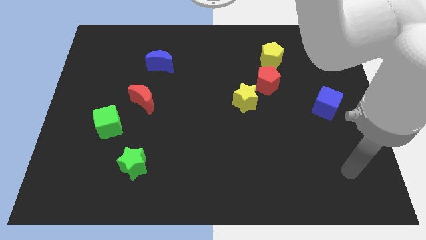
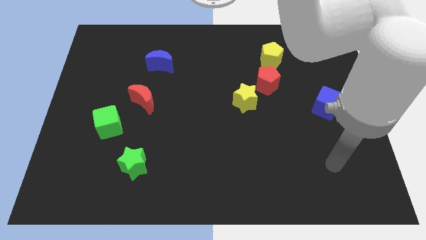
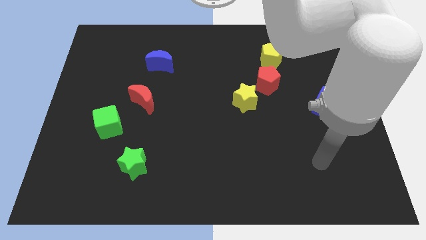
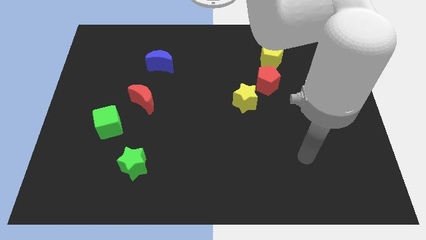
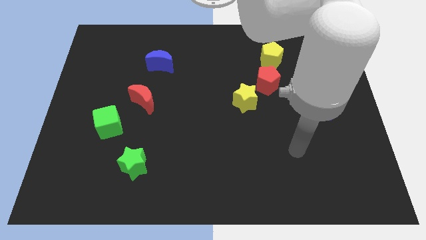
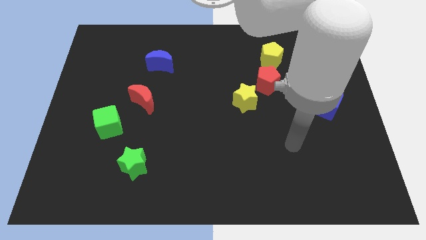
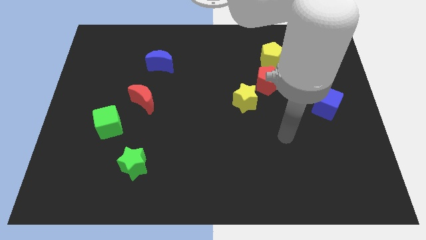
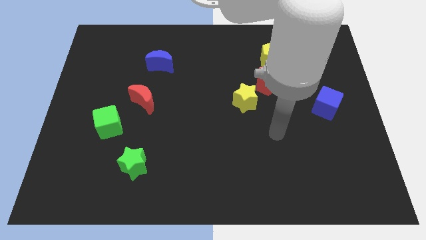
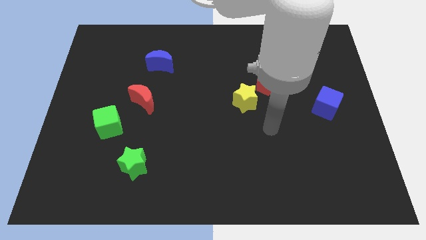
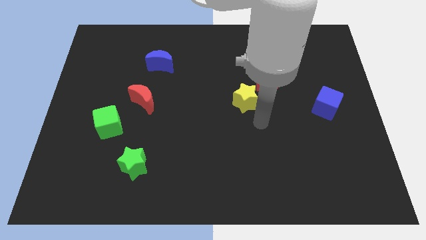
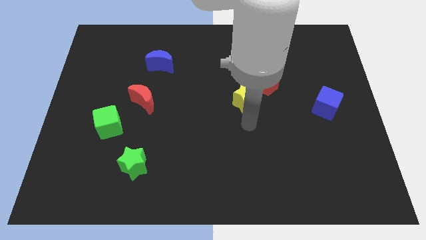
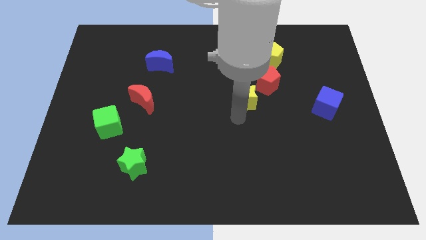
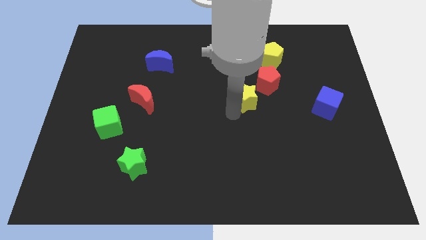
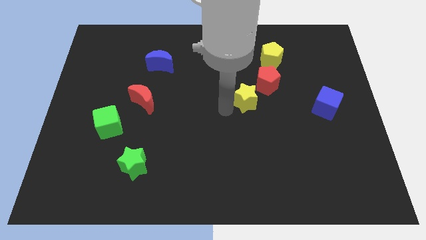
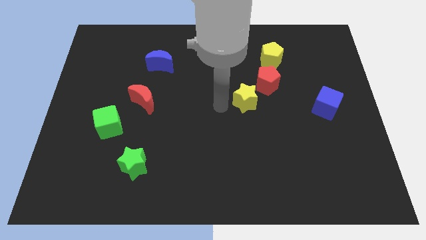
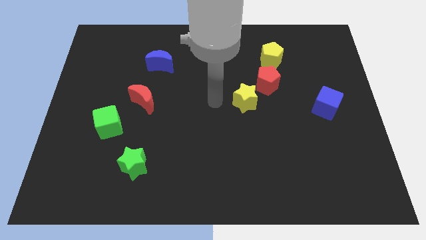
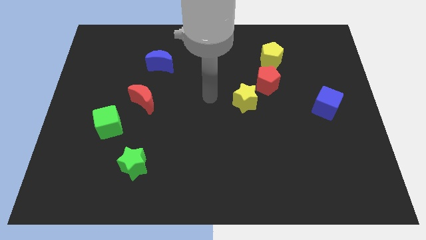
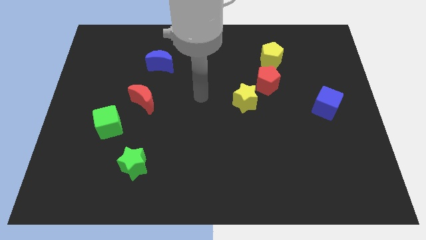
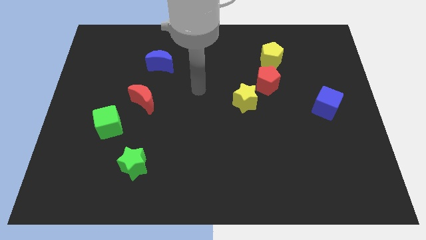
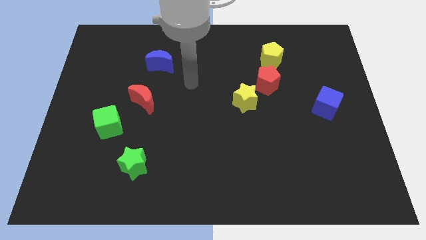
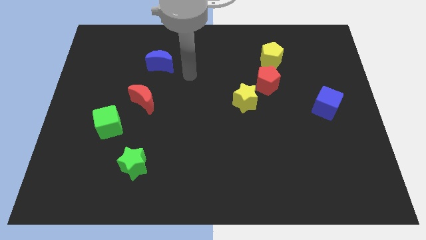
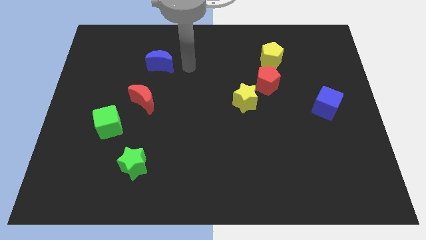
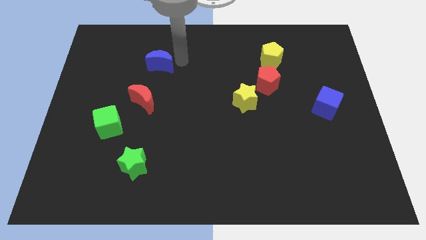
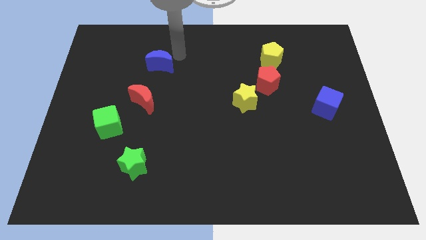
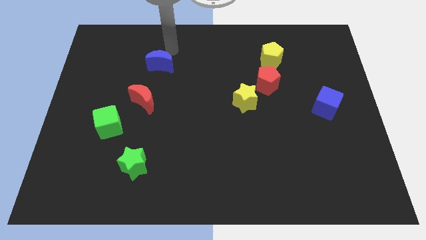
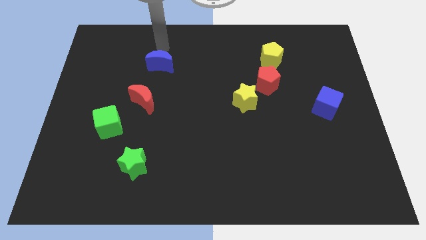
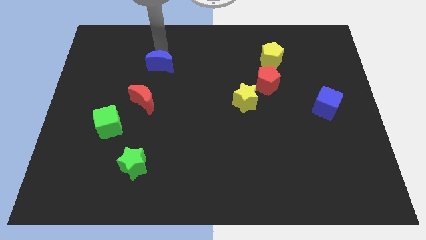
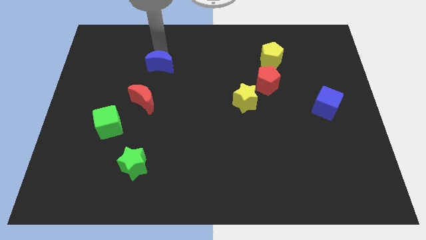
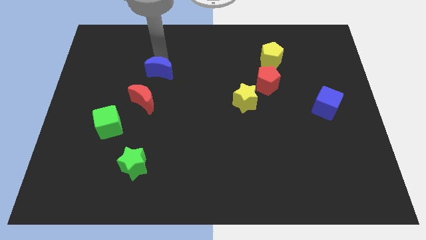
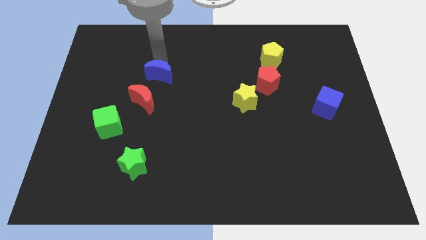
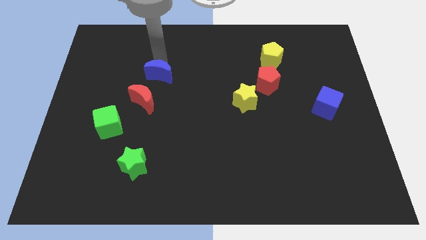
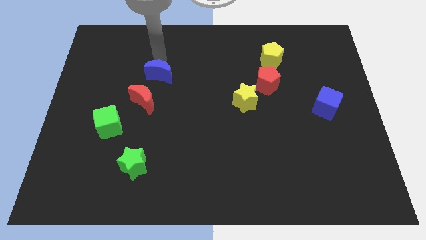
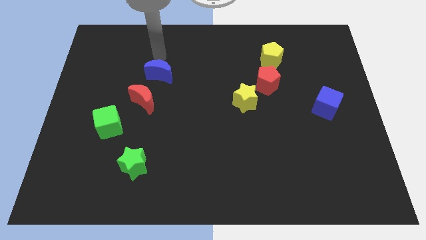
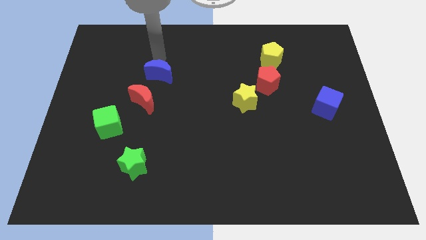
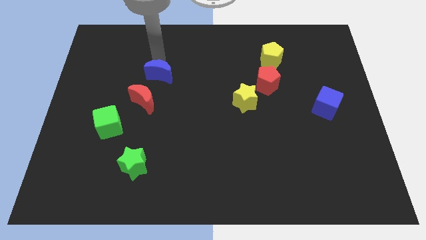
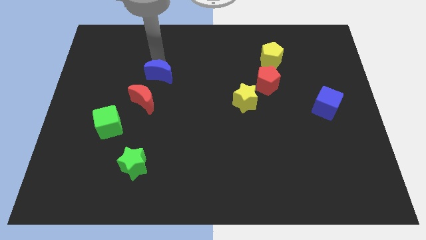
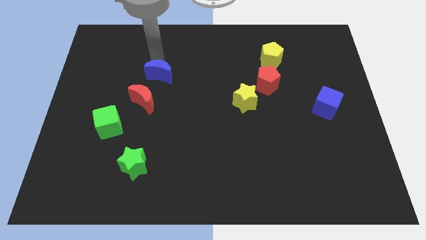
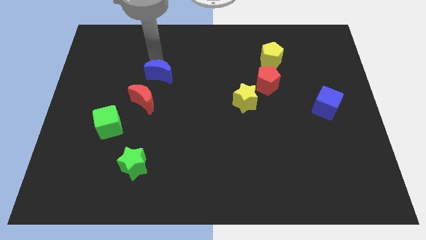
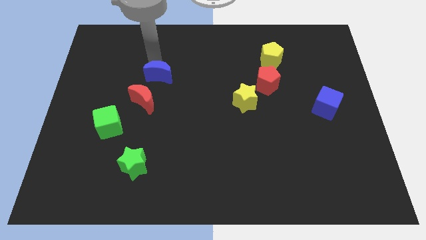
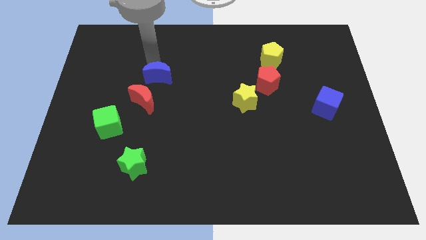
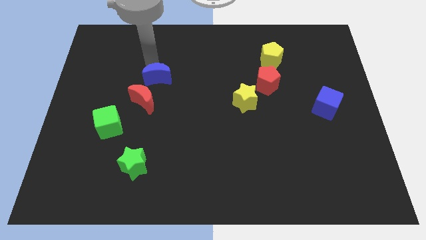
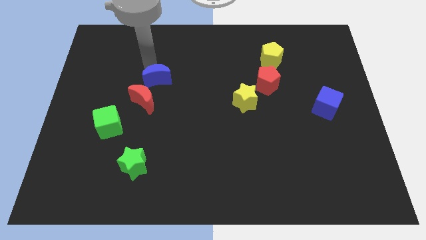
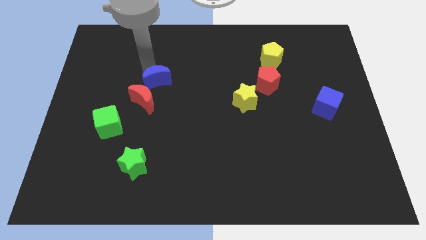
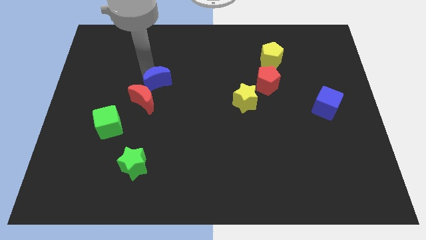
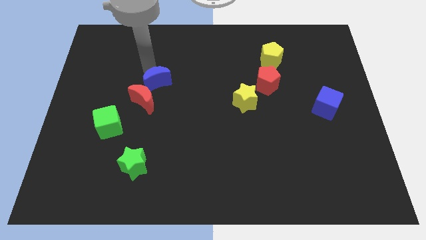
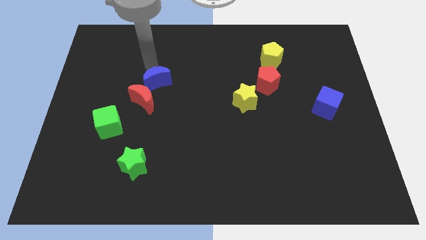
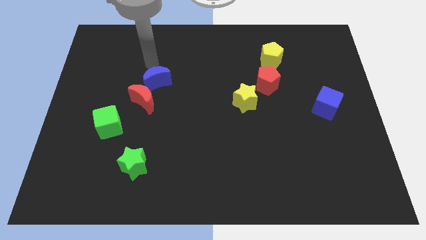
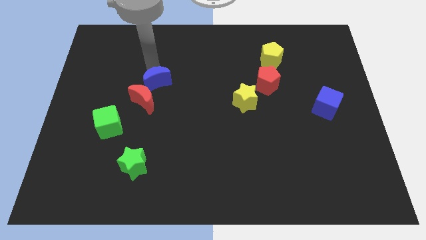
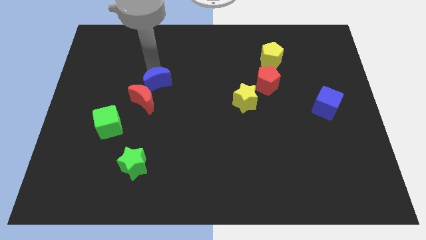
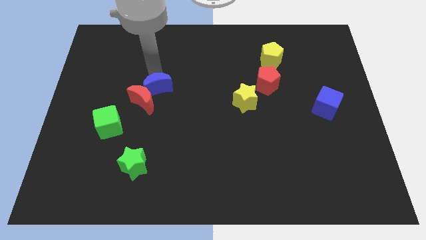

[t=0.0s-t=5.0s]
slightly push the blue moon downwards

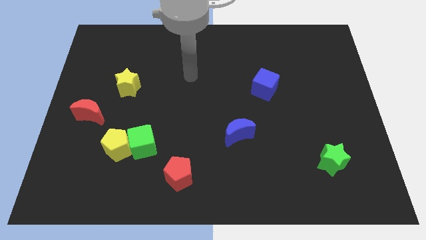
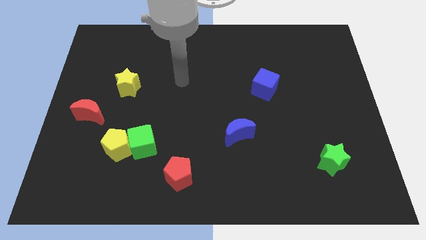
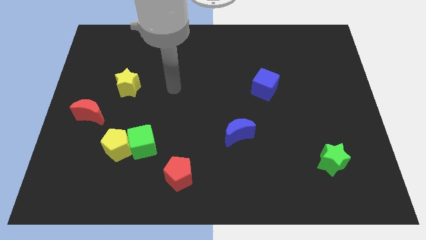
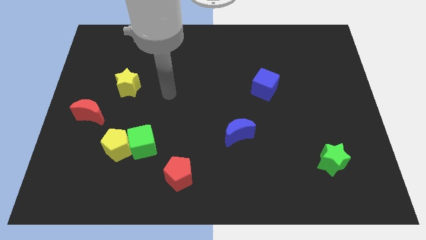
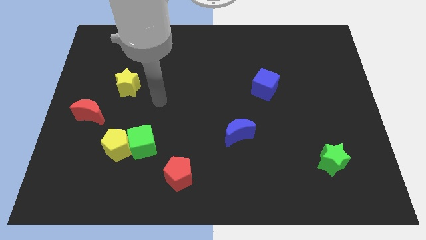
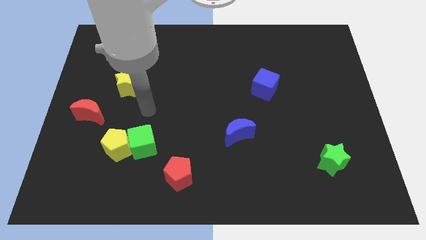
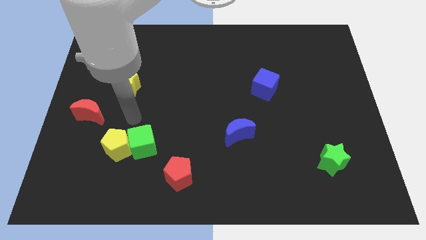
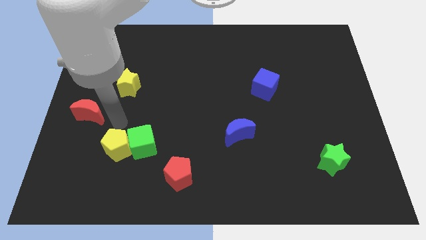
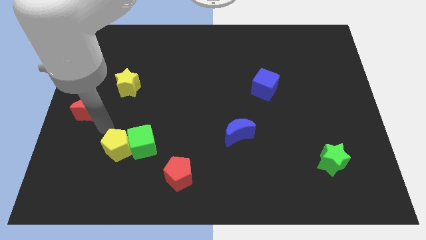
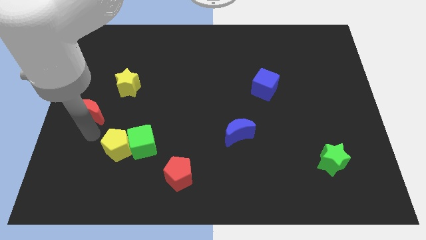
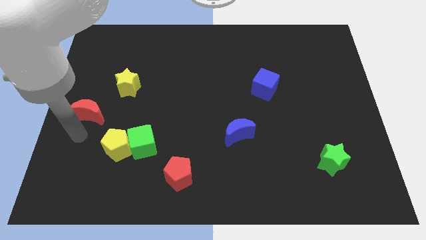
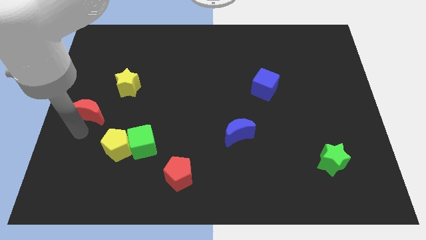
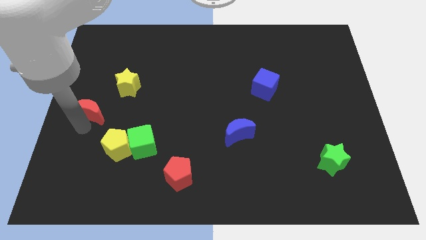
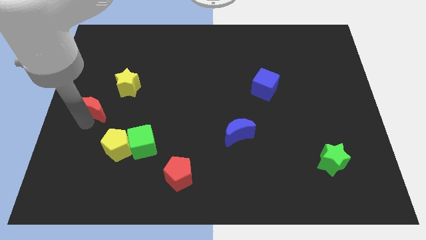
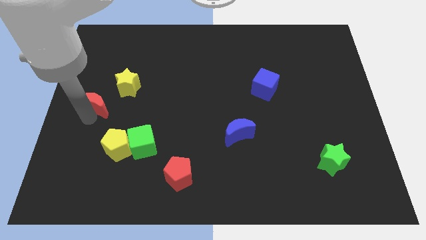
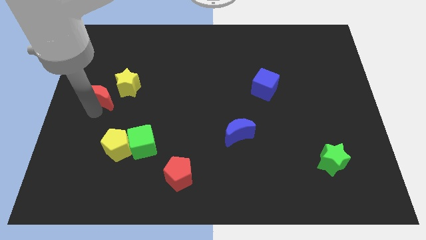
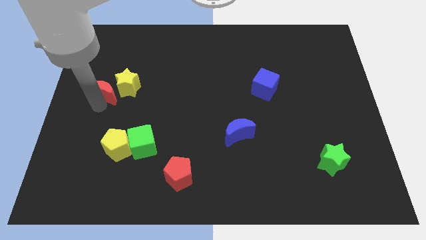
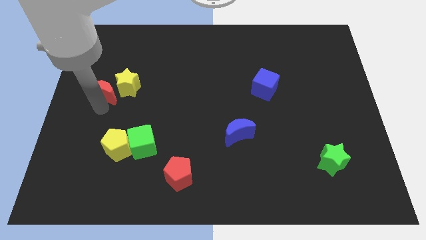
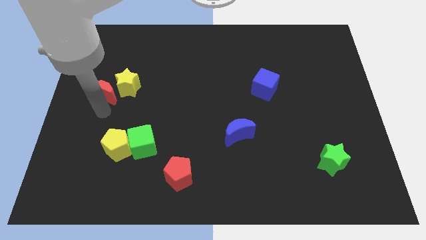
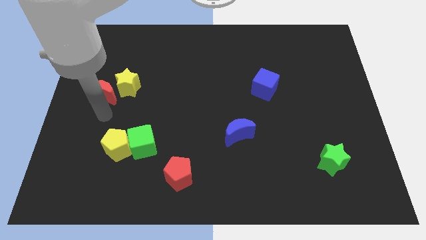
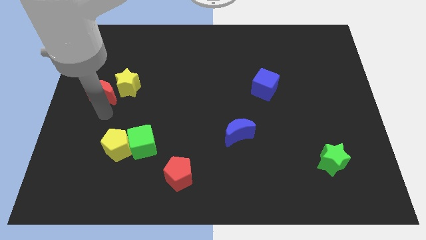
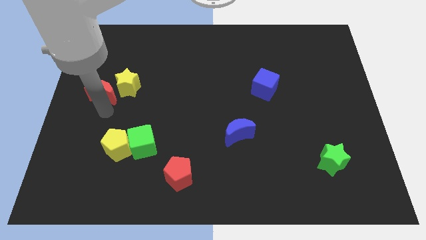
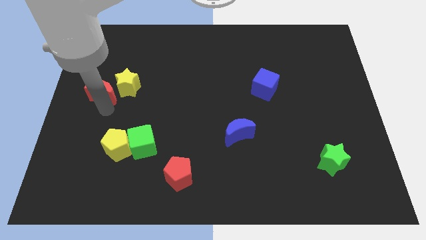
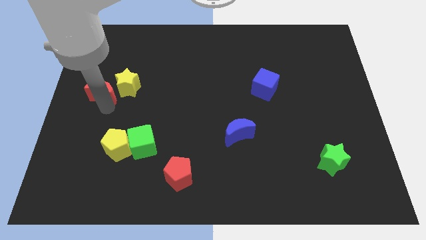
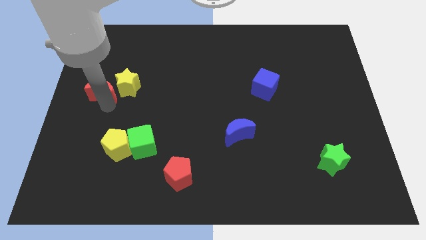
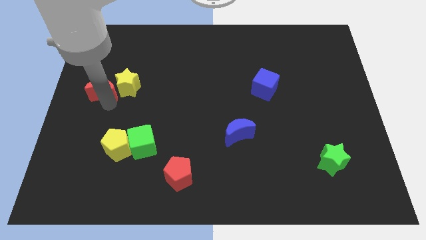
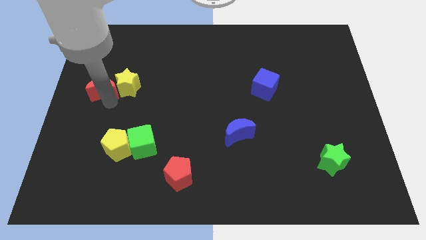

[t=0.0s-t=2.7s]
move the red moon up slightly

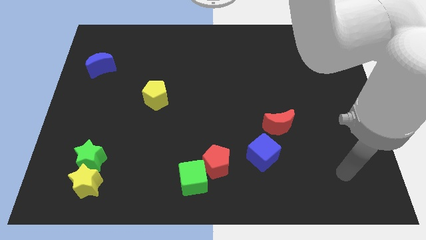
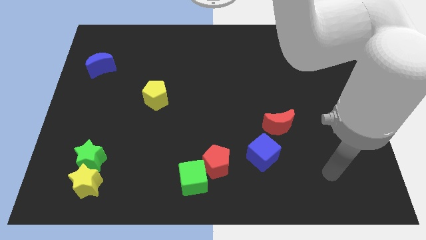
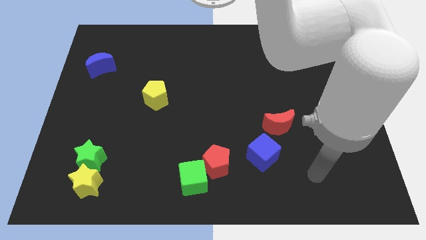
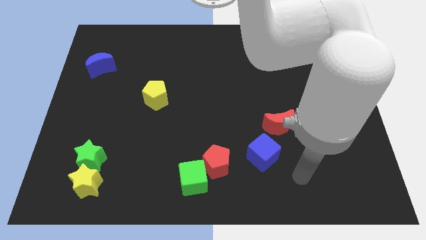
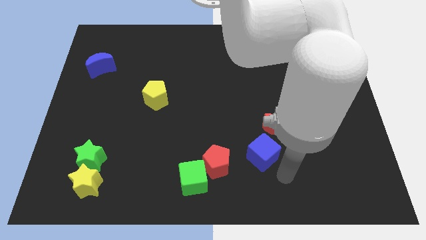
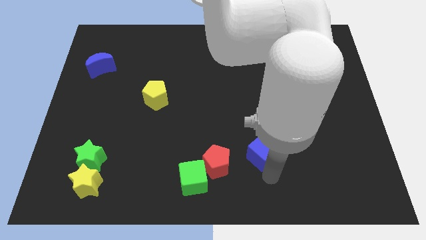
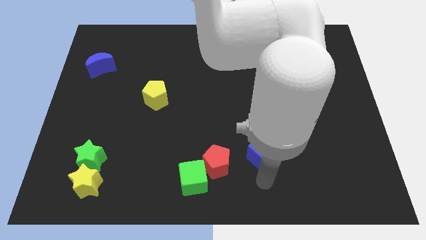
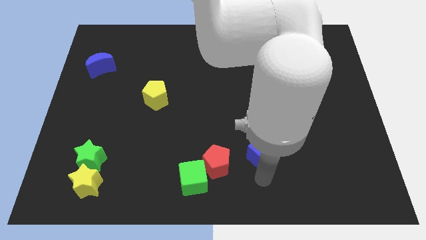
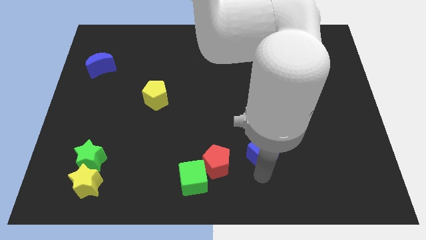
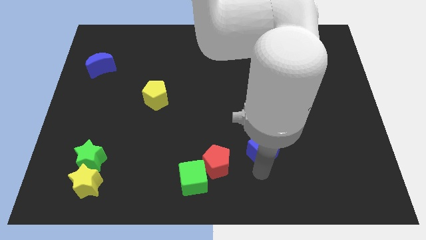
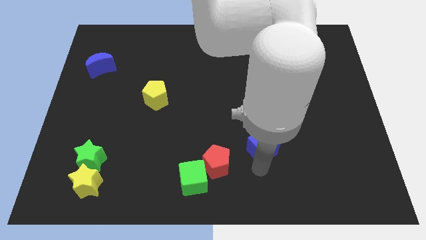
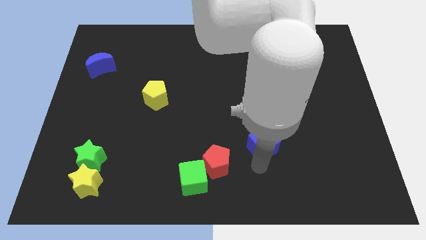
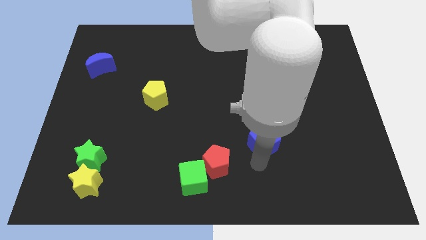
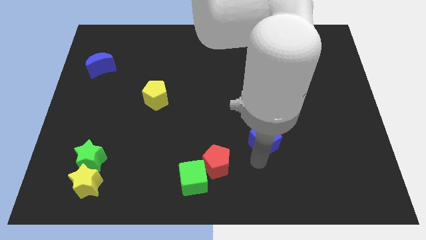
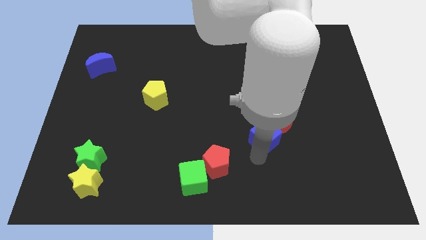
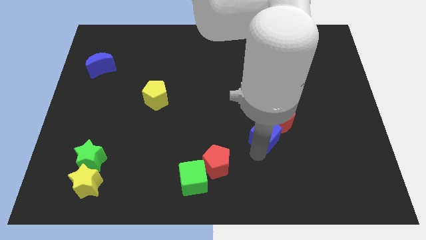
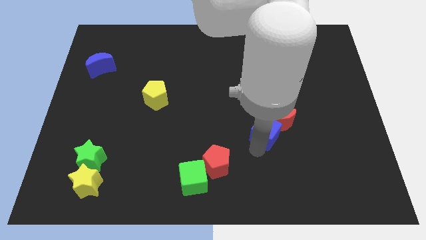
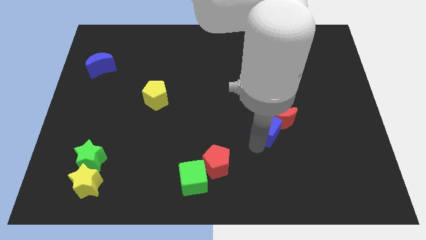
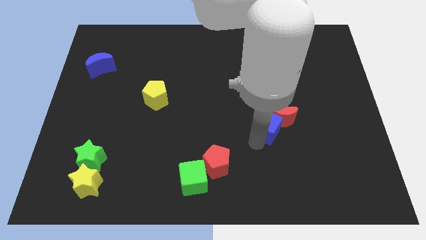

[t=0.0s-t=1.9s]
slightly push the blue cube upwards
